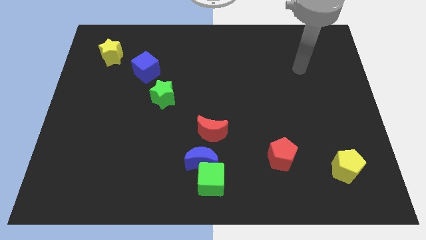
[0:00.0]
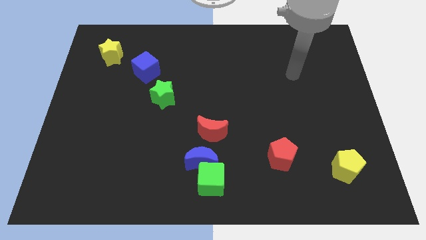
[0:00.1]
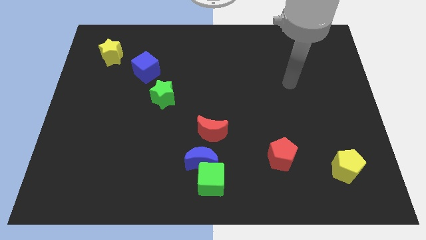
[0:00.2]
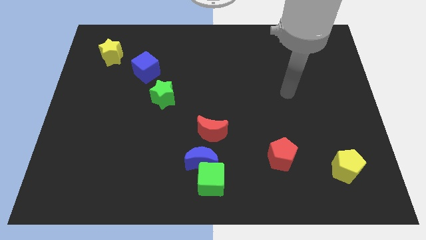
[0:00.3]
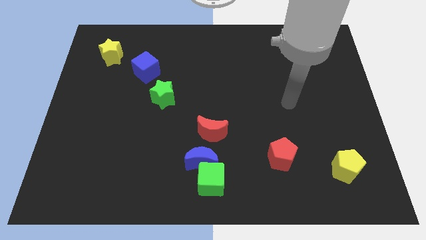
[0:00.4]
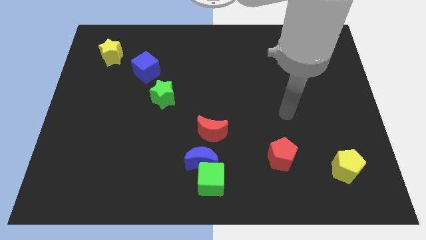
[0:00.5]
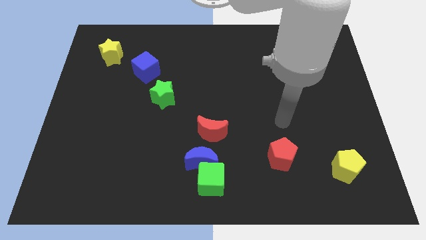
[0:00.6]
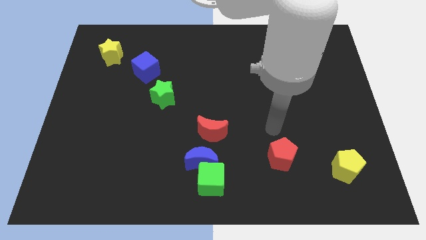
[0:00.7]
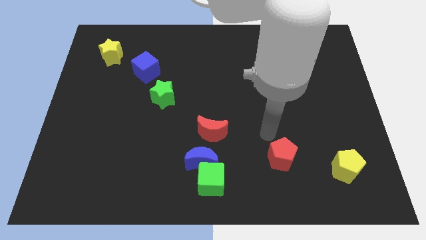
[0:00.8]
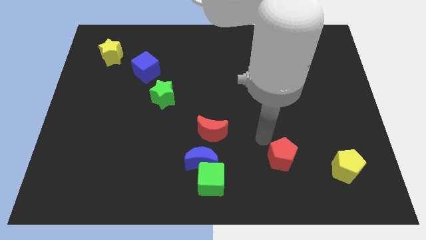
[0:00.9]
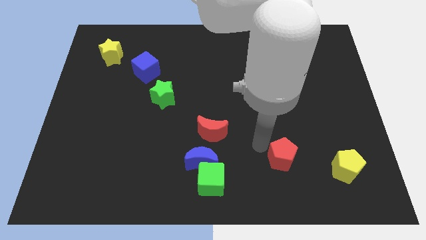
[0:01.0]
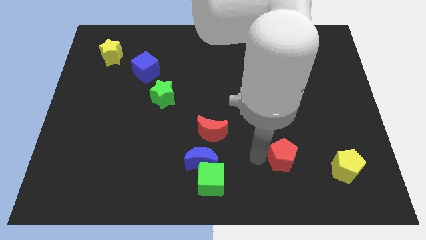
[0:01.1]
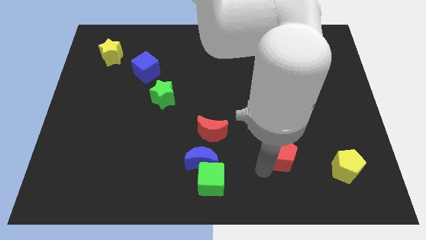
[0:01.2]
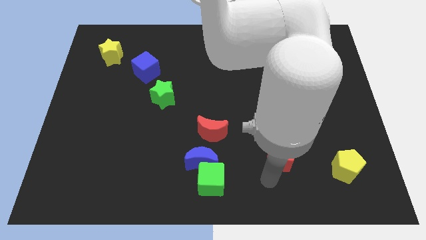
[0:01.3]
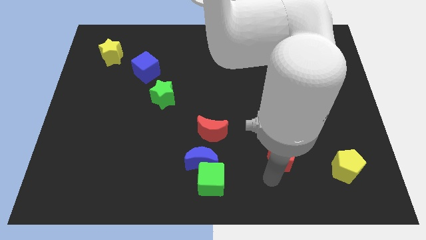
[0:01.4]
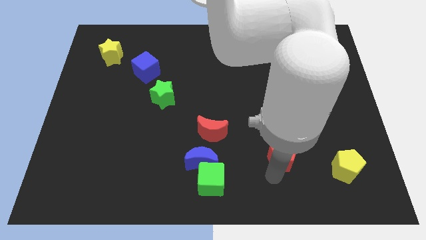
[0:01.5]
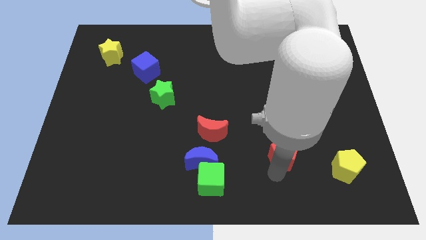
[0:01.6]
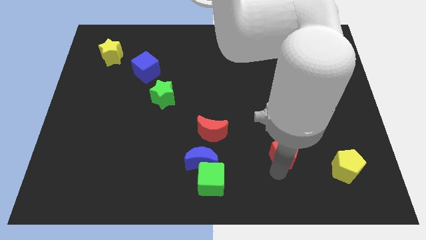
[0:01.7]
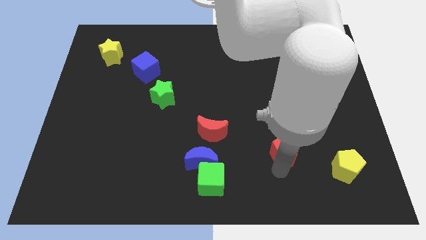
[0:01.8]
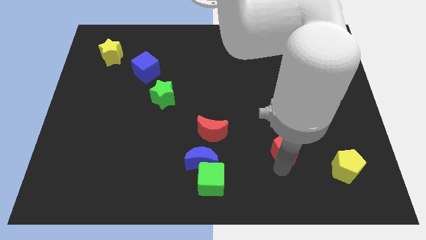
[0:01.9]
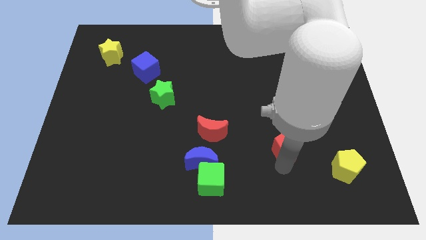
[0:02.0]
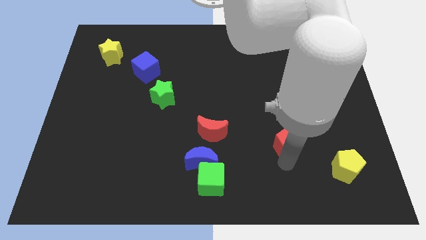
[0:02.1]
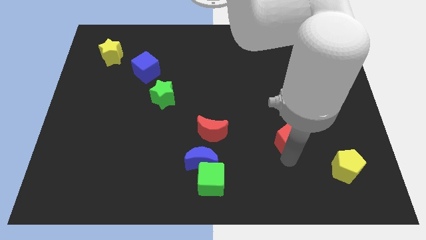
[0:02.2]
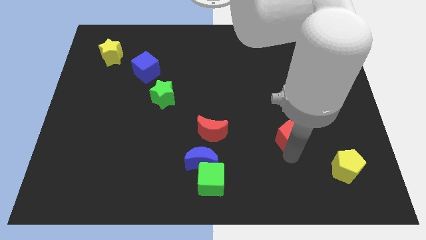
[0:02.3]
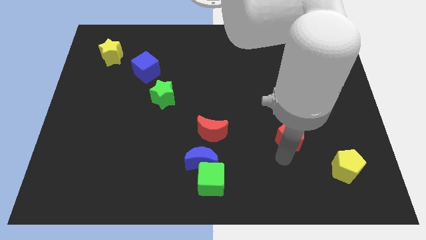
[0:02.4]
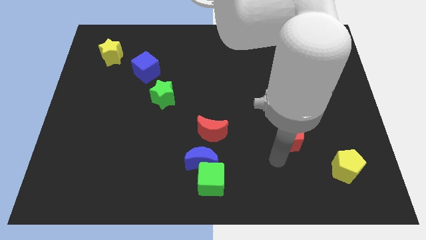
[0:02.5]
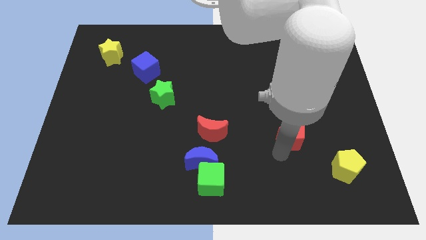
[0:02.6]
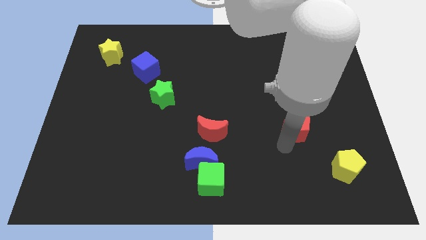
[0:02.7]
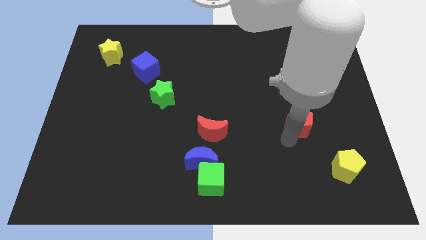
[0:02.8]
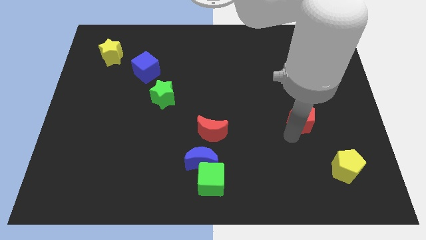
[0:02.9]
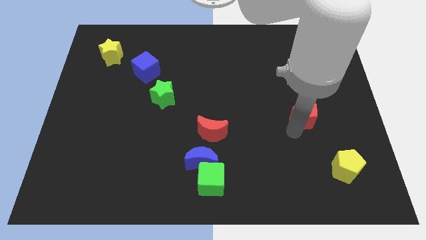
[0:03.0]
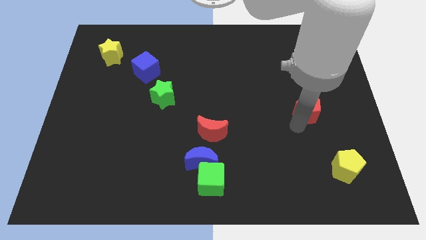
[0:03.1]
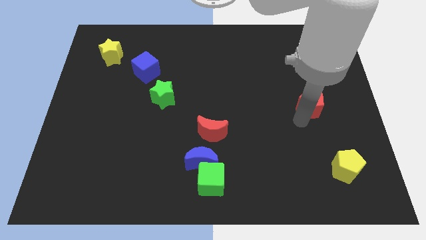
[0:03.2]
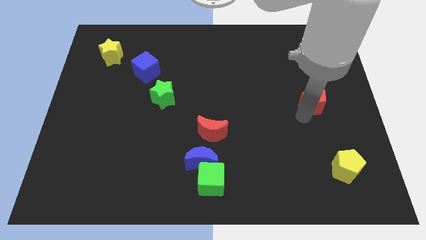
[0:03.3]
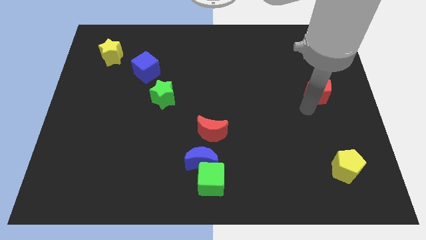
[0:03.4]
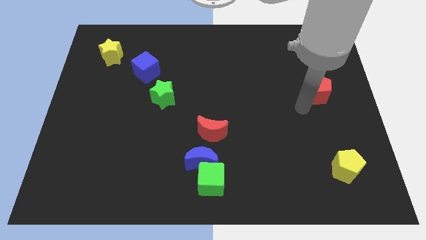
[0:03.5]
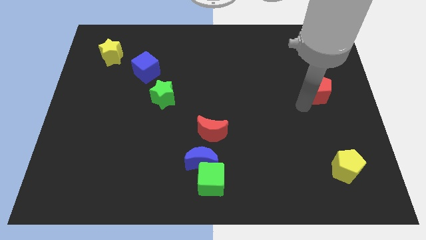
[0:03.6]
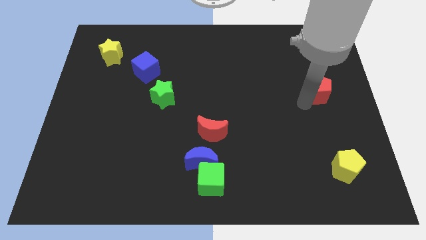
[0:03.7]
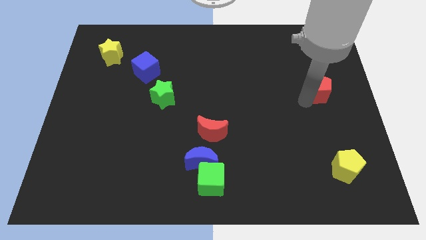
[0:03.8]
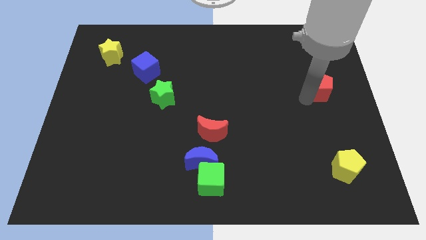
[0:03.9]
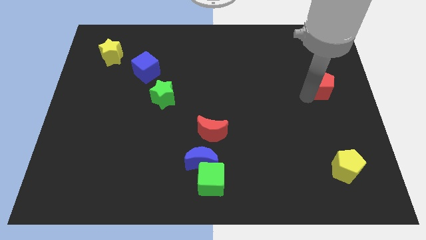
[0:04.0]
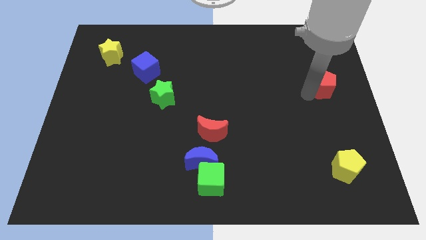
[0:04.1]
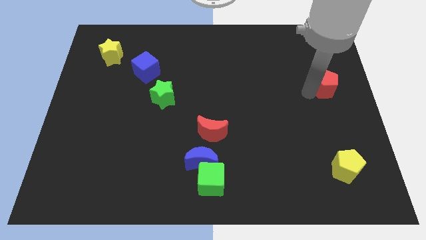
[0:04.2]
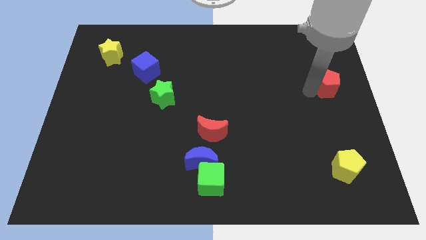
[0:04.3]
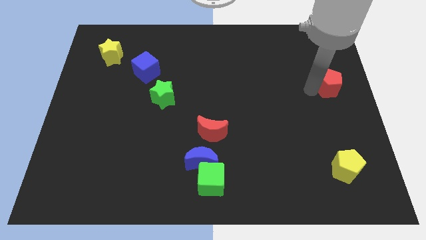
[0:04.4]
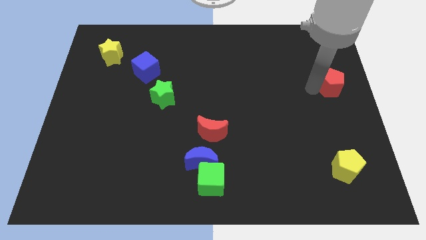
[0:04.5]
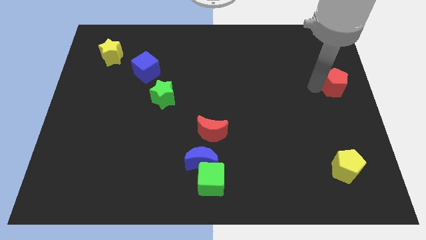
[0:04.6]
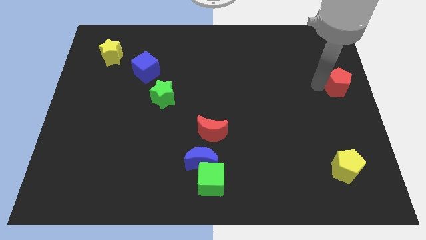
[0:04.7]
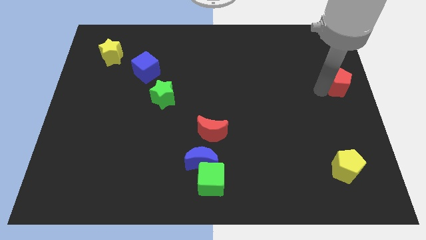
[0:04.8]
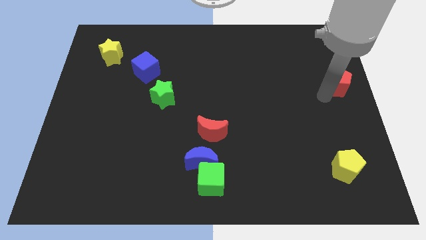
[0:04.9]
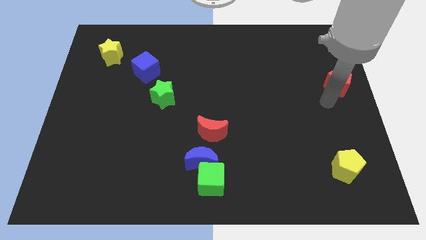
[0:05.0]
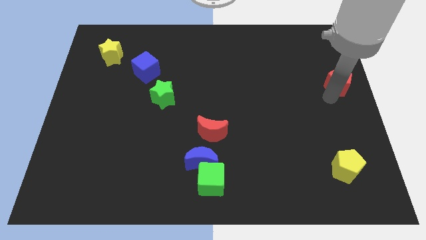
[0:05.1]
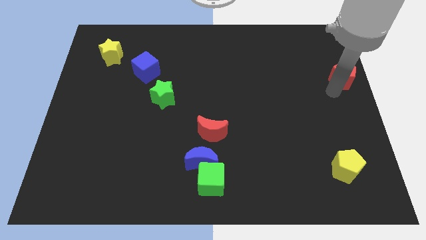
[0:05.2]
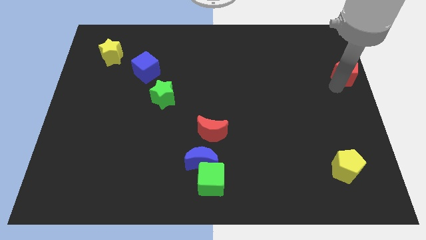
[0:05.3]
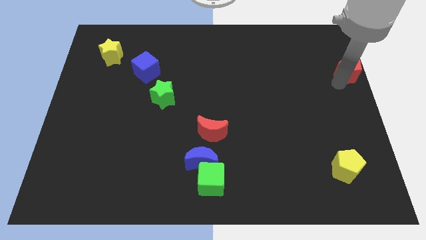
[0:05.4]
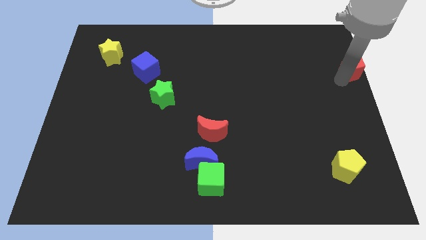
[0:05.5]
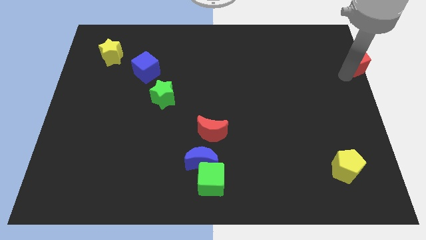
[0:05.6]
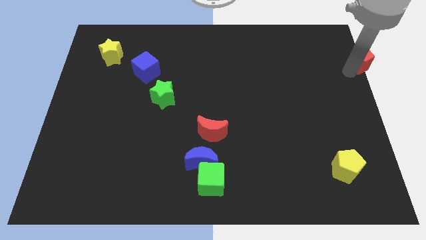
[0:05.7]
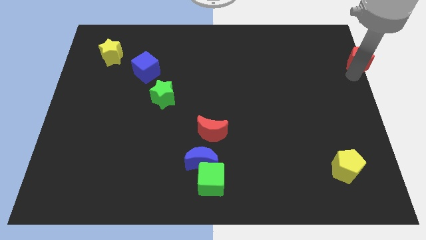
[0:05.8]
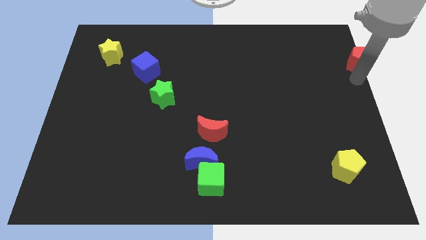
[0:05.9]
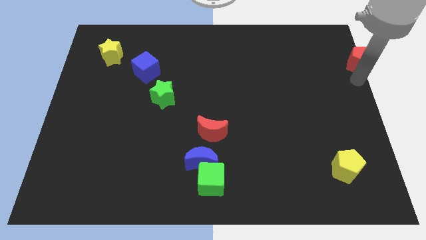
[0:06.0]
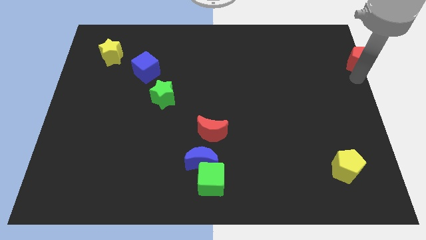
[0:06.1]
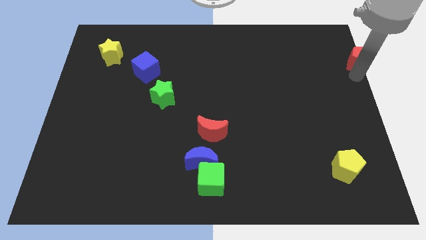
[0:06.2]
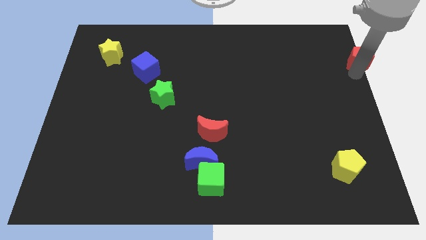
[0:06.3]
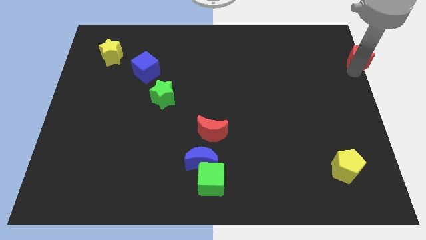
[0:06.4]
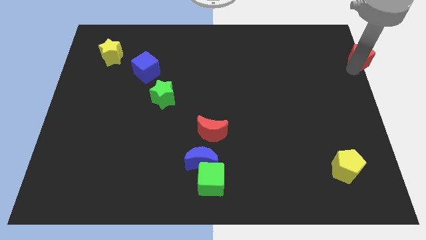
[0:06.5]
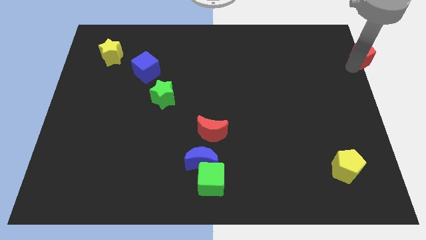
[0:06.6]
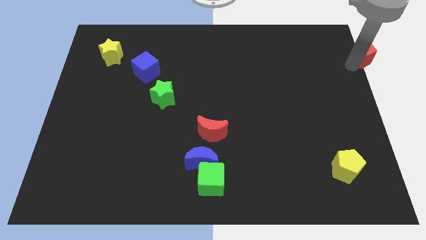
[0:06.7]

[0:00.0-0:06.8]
put the red pentagon to the upper right corner
